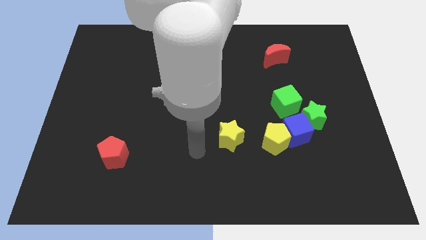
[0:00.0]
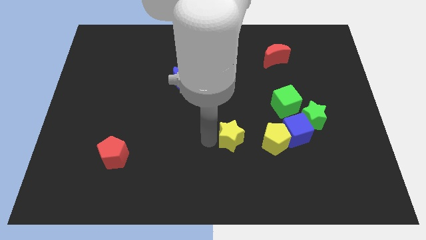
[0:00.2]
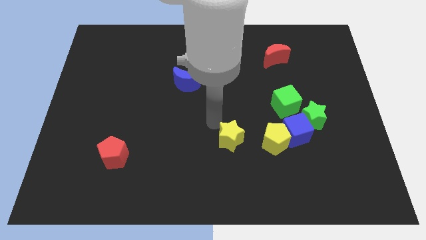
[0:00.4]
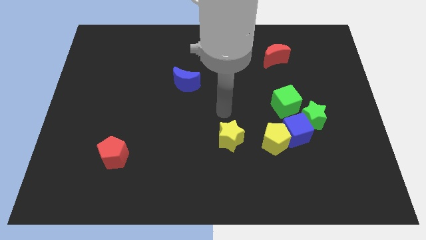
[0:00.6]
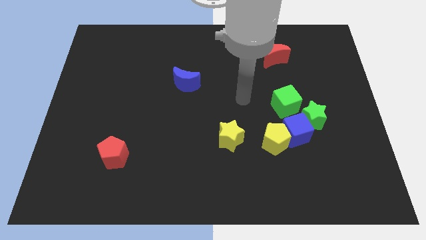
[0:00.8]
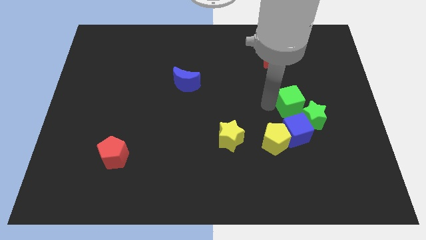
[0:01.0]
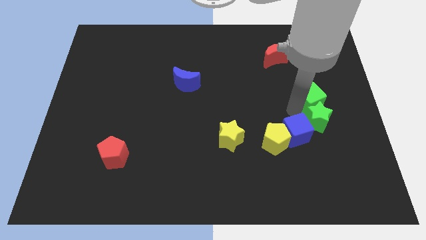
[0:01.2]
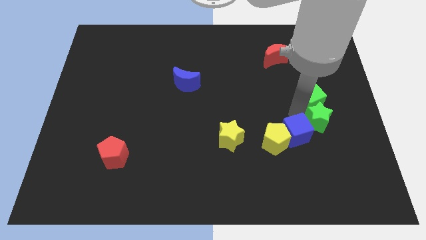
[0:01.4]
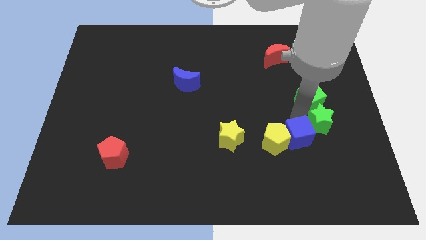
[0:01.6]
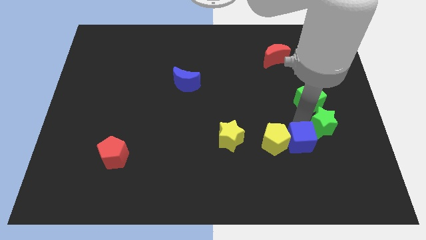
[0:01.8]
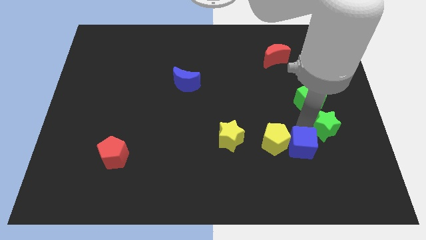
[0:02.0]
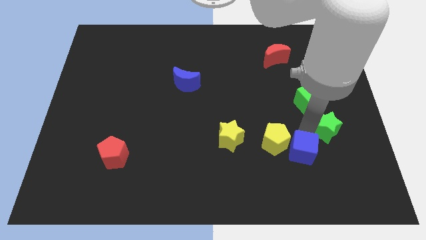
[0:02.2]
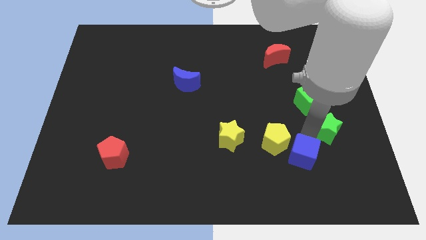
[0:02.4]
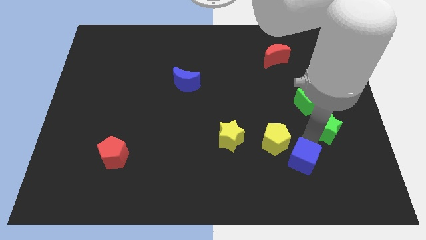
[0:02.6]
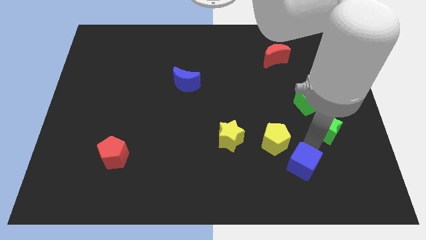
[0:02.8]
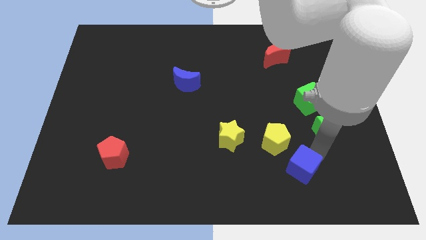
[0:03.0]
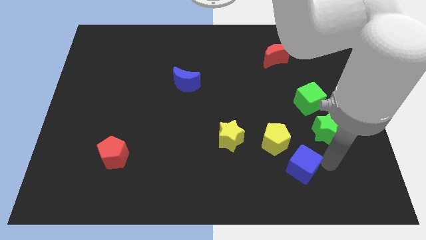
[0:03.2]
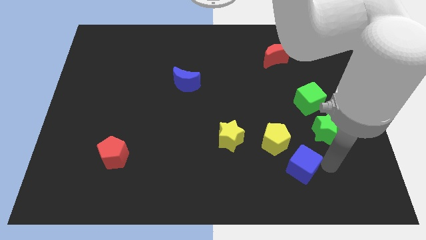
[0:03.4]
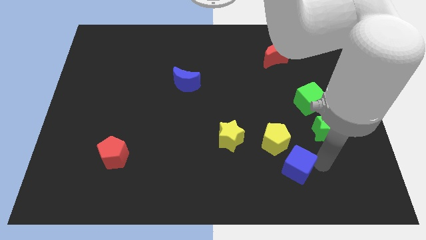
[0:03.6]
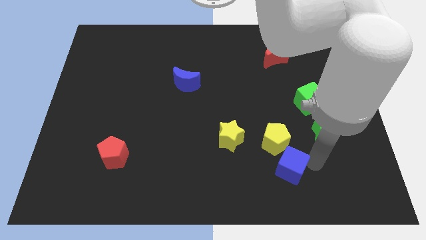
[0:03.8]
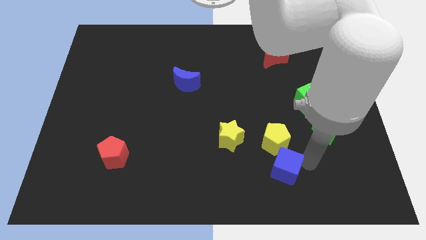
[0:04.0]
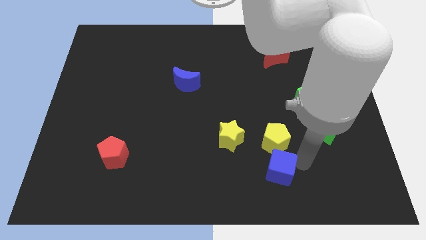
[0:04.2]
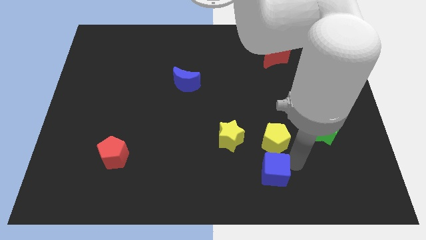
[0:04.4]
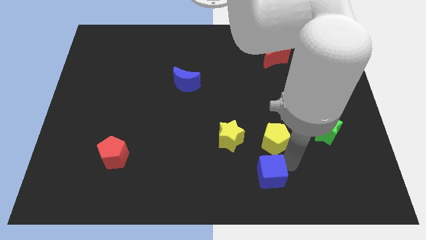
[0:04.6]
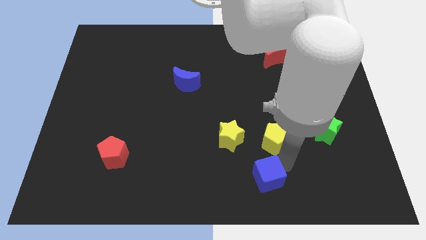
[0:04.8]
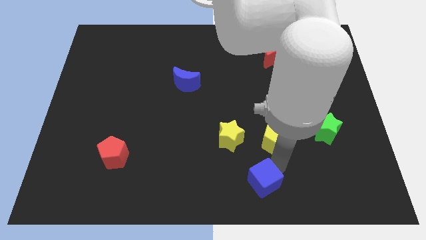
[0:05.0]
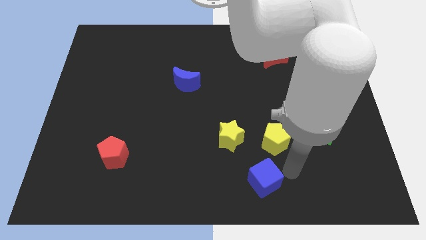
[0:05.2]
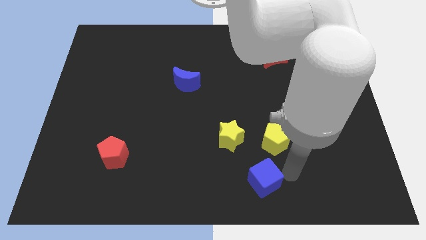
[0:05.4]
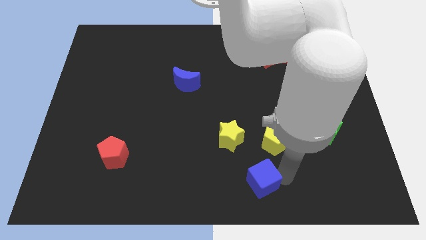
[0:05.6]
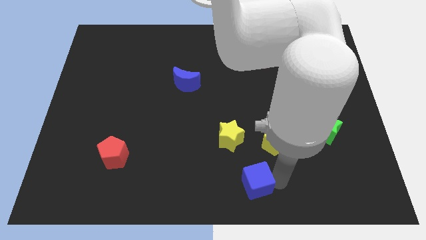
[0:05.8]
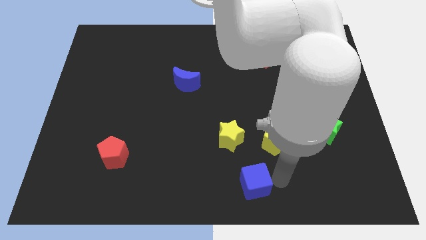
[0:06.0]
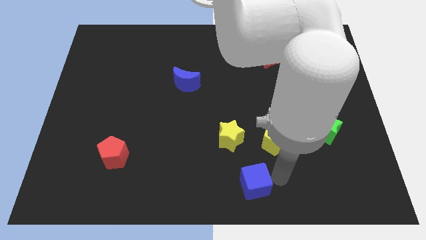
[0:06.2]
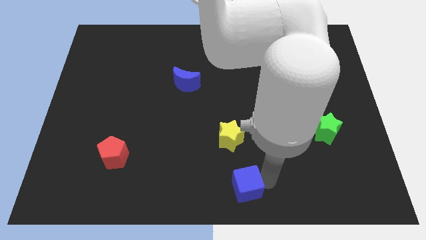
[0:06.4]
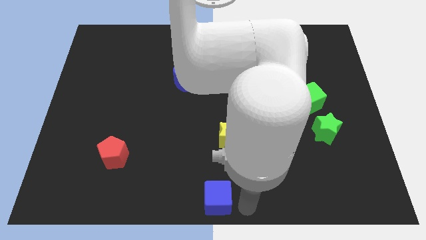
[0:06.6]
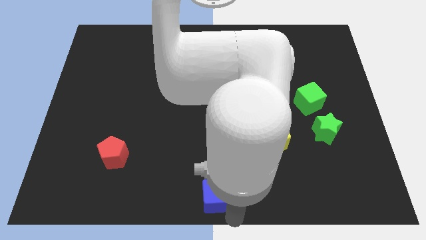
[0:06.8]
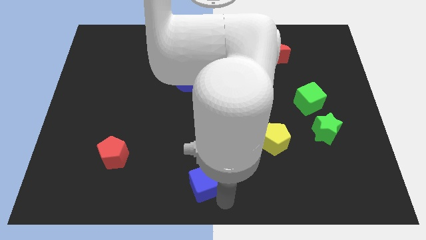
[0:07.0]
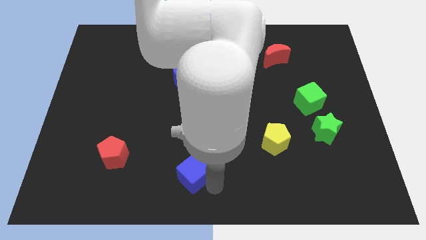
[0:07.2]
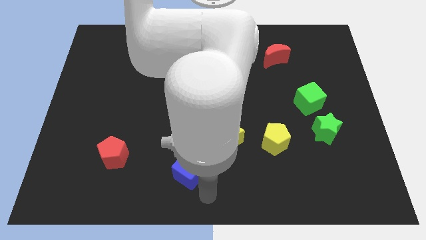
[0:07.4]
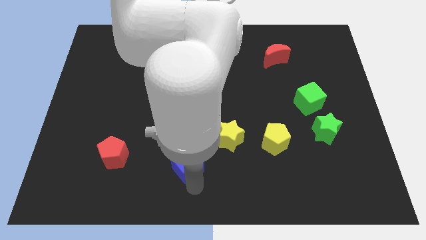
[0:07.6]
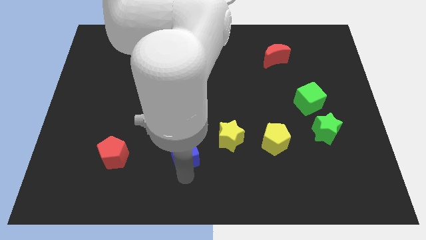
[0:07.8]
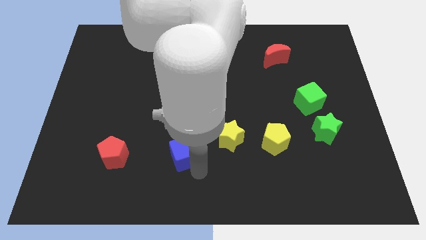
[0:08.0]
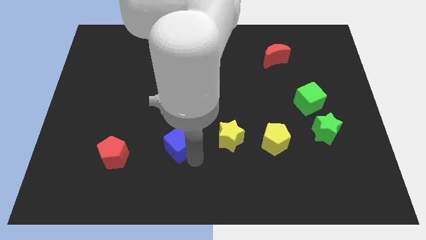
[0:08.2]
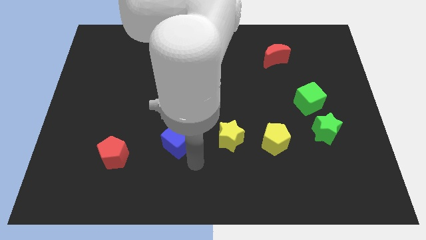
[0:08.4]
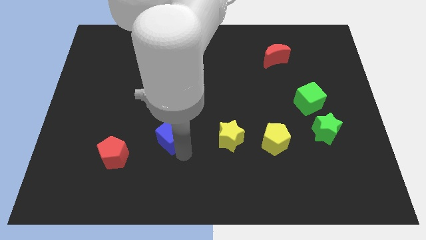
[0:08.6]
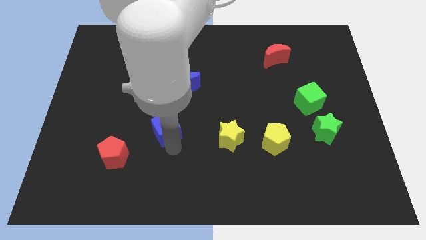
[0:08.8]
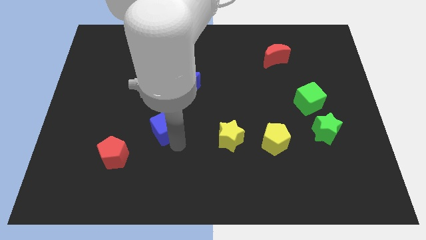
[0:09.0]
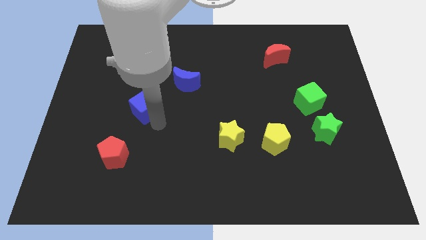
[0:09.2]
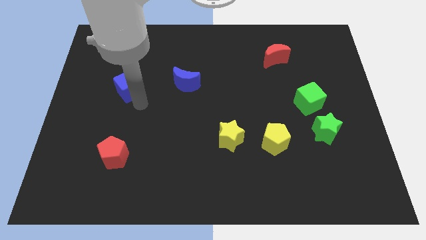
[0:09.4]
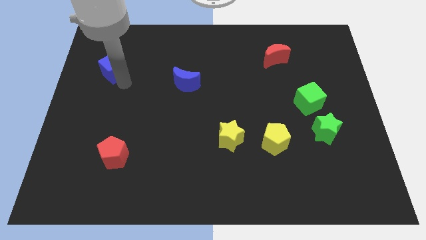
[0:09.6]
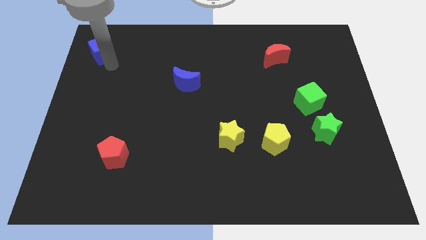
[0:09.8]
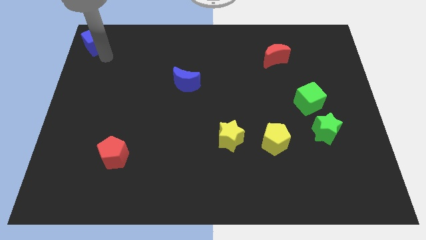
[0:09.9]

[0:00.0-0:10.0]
push the blue cube to the upper left corner
